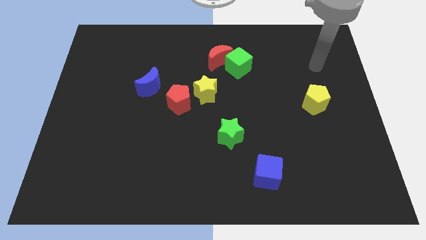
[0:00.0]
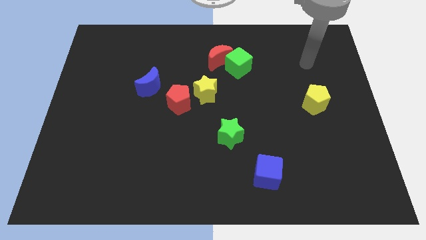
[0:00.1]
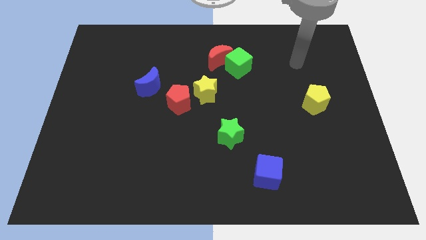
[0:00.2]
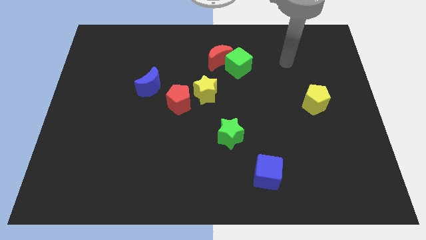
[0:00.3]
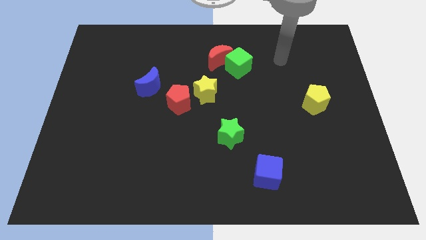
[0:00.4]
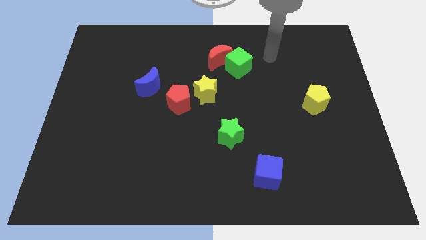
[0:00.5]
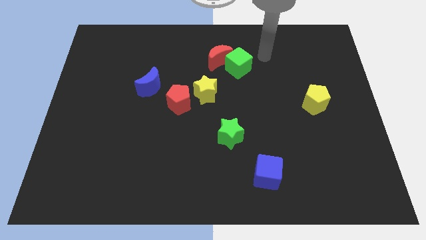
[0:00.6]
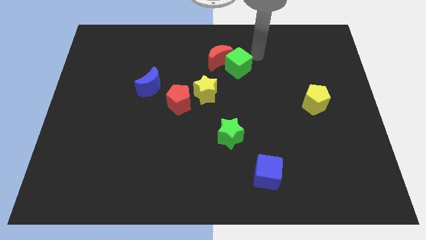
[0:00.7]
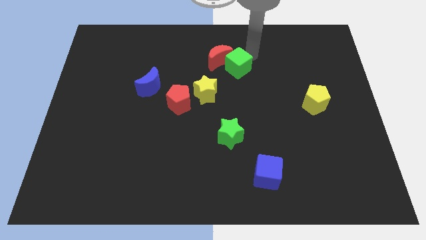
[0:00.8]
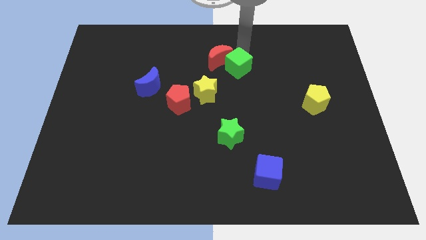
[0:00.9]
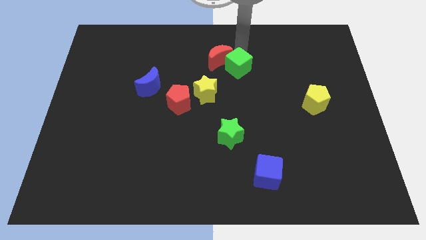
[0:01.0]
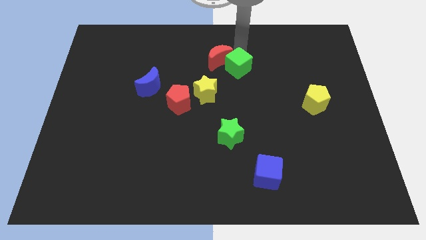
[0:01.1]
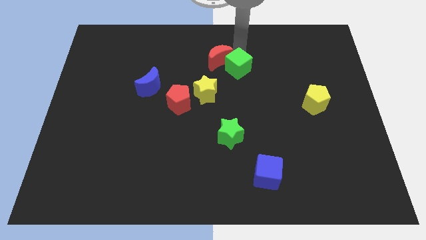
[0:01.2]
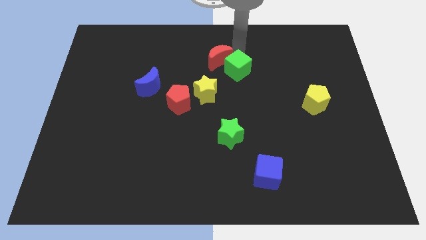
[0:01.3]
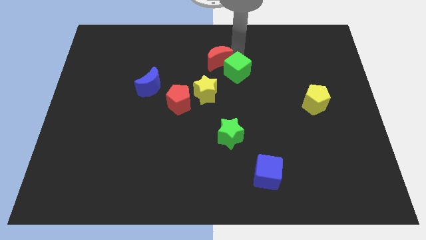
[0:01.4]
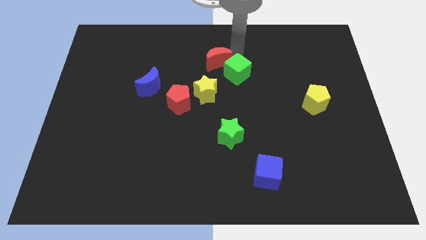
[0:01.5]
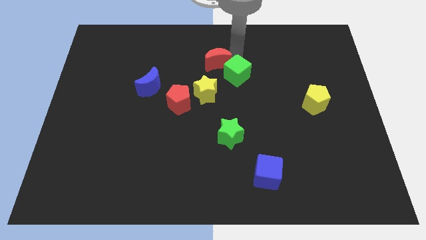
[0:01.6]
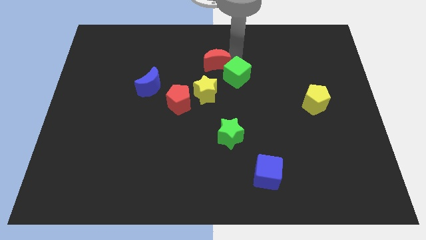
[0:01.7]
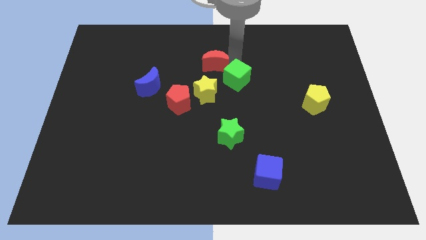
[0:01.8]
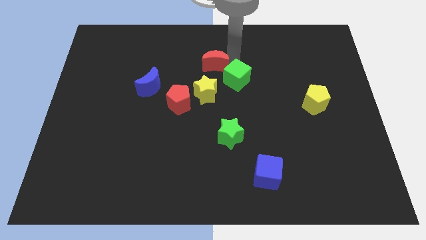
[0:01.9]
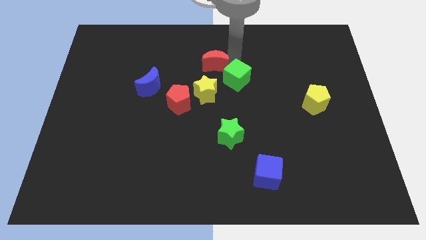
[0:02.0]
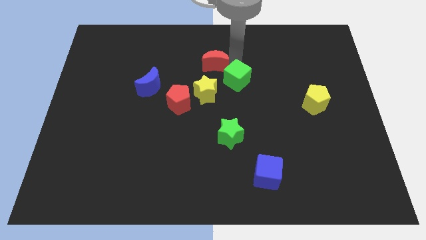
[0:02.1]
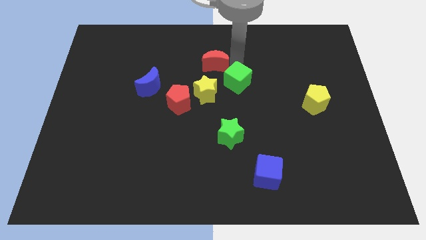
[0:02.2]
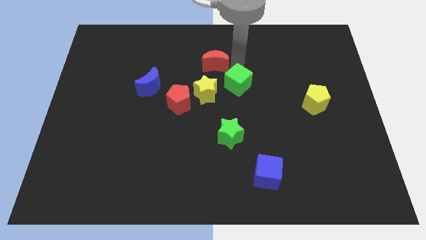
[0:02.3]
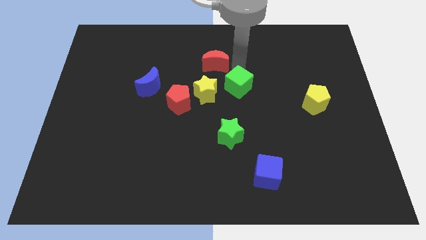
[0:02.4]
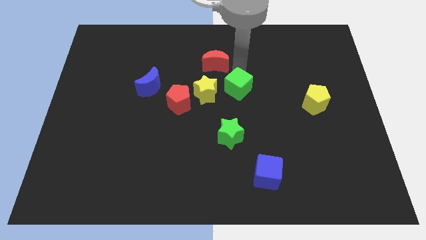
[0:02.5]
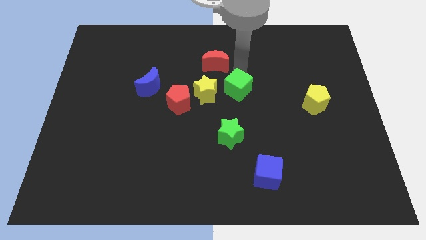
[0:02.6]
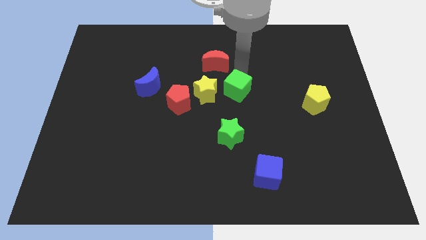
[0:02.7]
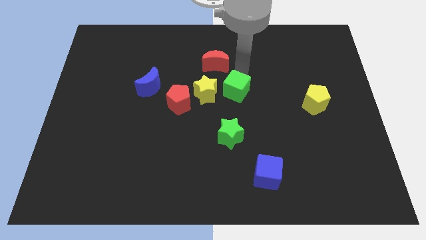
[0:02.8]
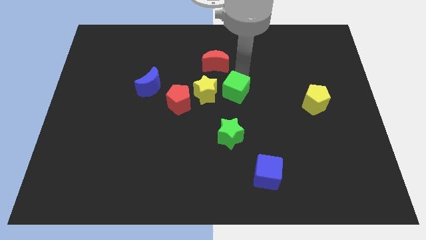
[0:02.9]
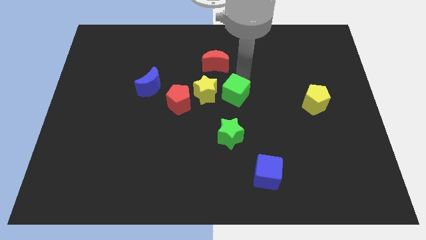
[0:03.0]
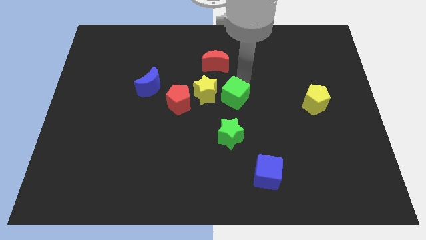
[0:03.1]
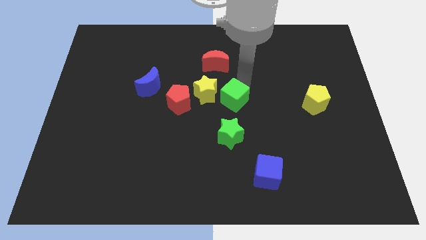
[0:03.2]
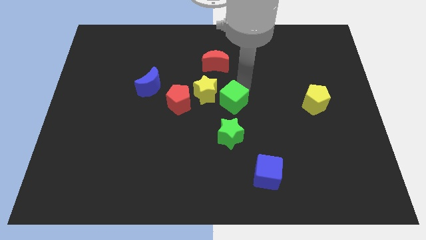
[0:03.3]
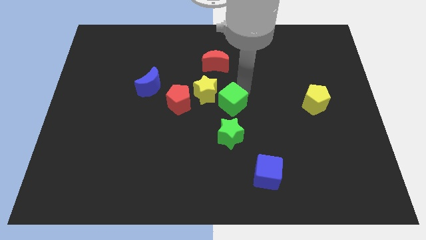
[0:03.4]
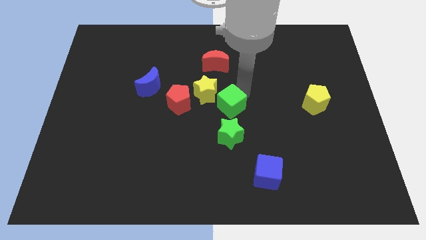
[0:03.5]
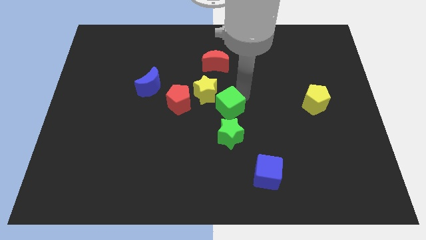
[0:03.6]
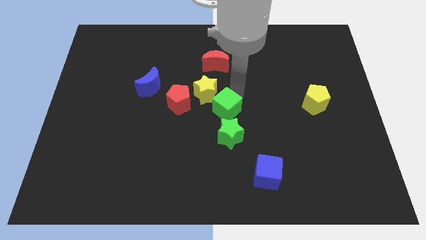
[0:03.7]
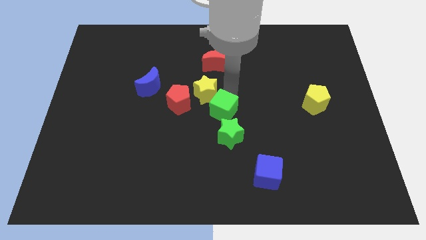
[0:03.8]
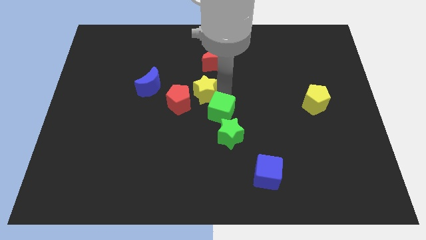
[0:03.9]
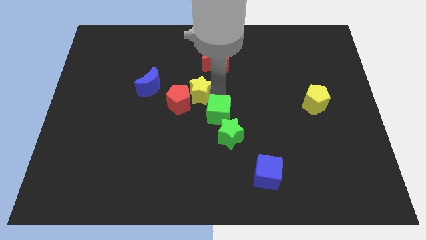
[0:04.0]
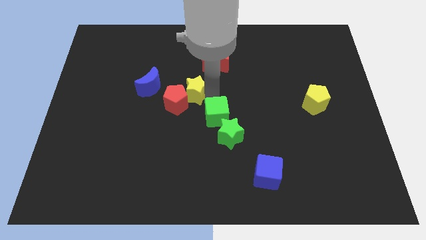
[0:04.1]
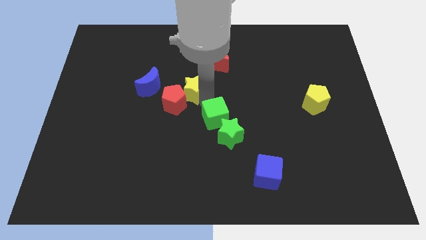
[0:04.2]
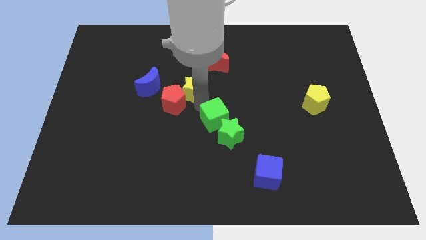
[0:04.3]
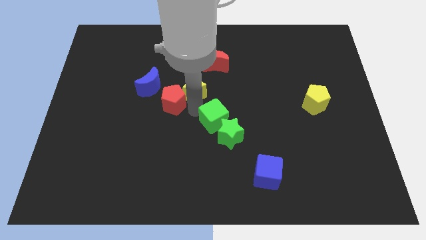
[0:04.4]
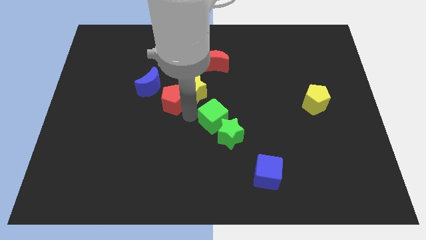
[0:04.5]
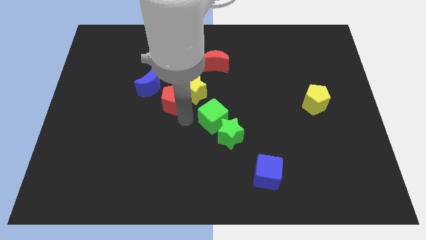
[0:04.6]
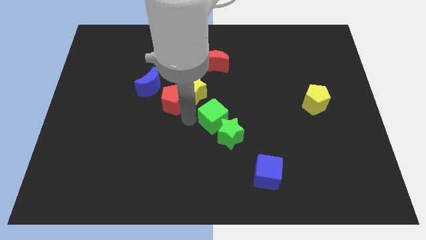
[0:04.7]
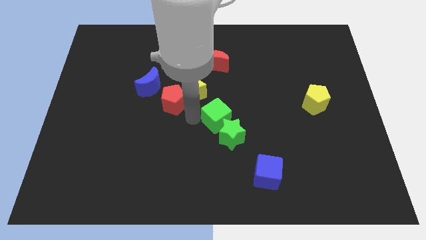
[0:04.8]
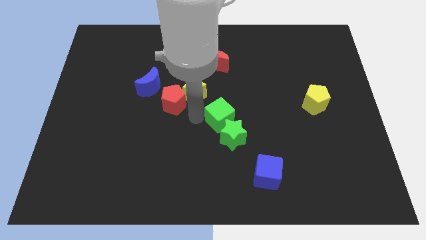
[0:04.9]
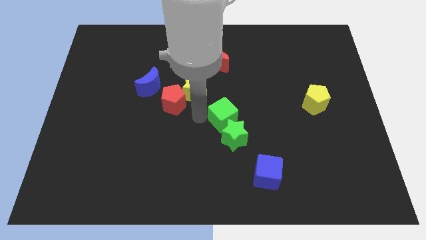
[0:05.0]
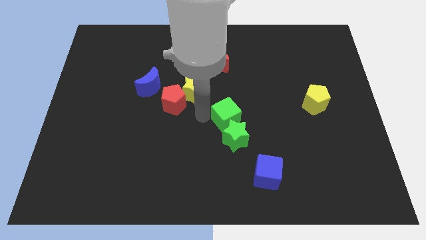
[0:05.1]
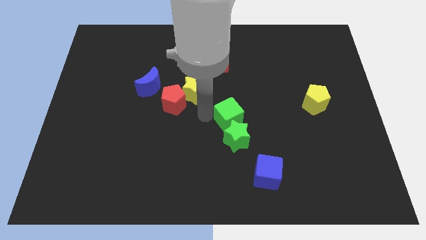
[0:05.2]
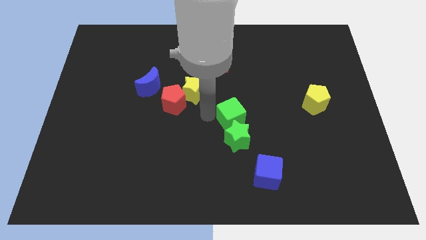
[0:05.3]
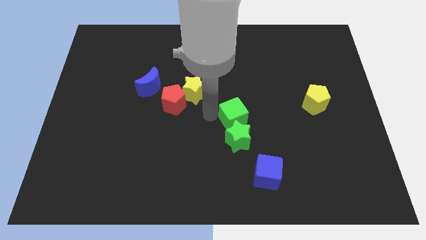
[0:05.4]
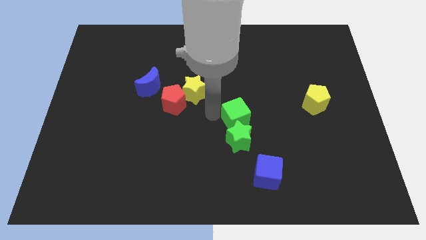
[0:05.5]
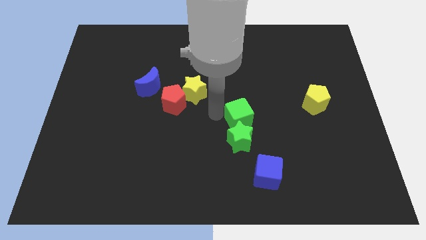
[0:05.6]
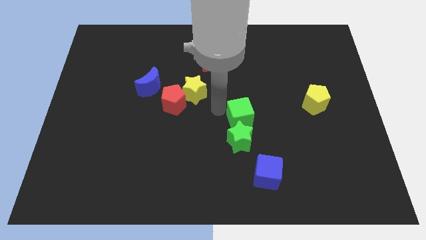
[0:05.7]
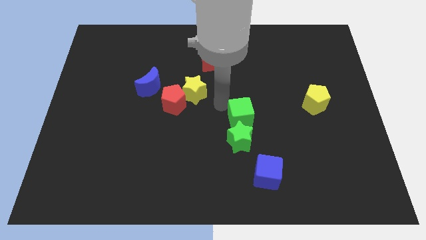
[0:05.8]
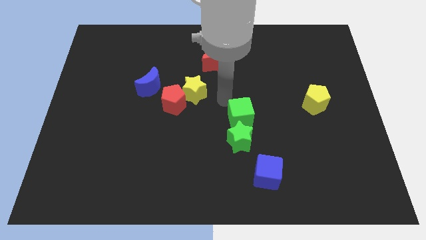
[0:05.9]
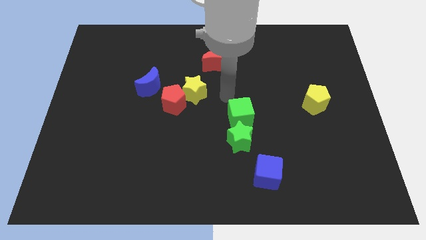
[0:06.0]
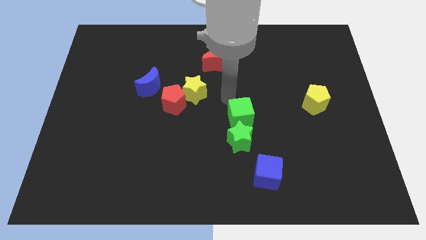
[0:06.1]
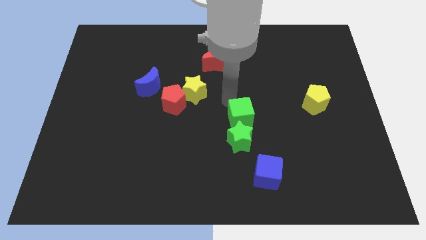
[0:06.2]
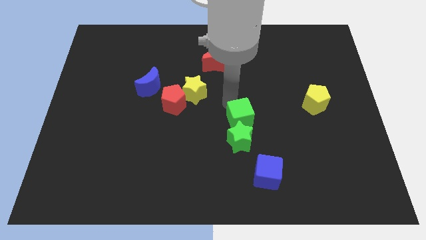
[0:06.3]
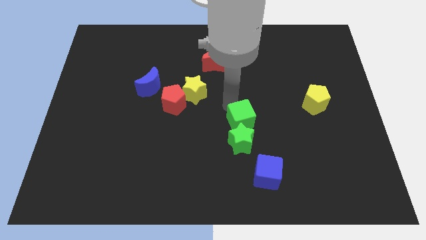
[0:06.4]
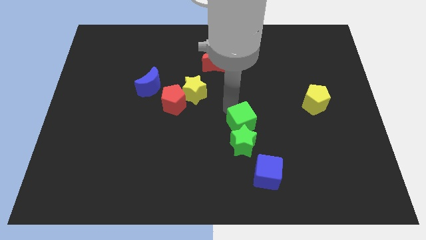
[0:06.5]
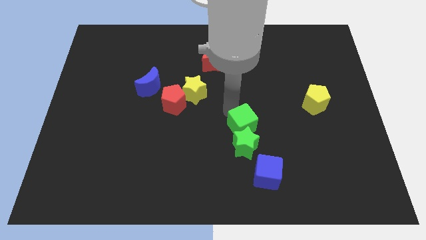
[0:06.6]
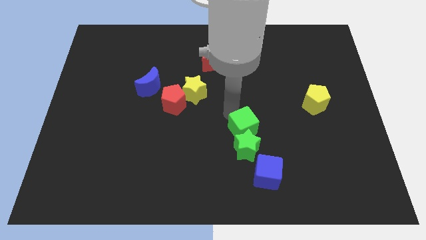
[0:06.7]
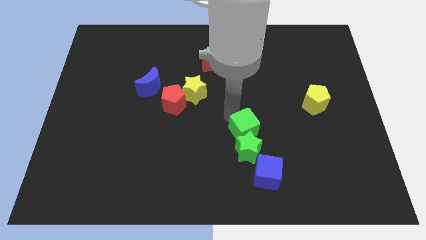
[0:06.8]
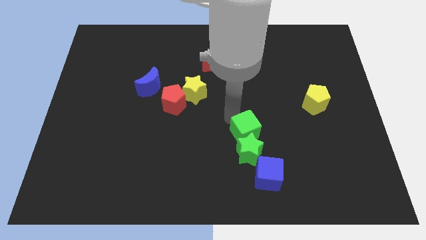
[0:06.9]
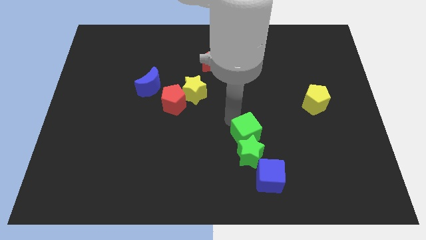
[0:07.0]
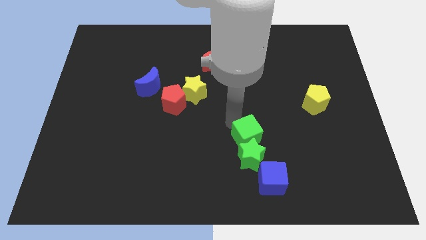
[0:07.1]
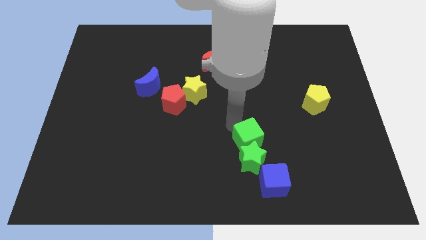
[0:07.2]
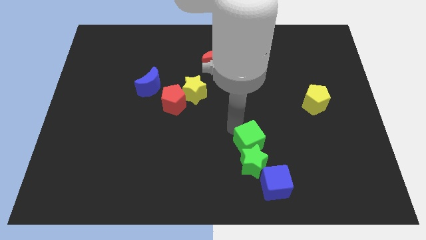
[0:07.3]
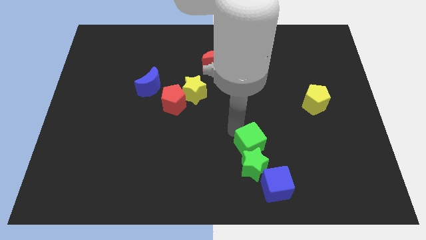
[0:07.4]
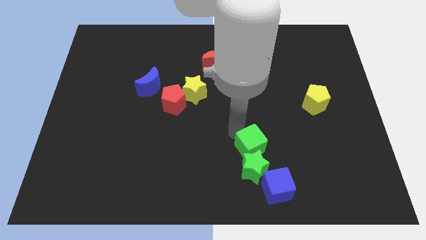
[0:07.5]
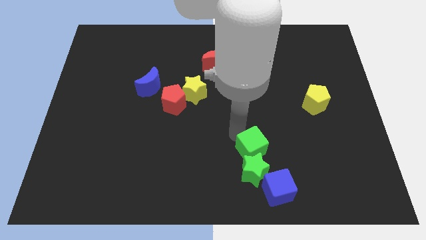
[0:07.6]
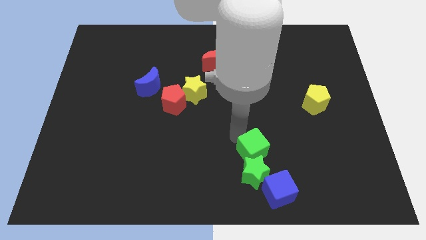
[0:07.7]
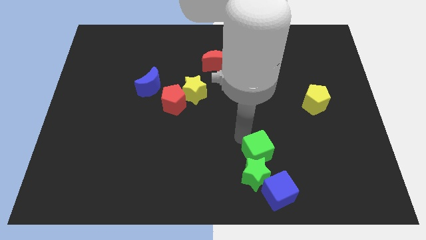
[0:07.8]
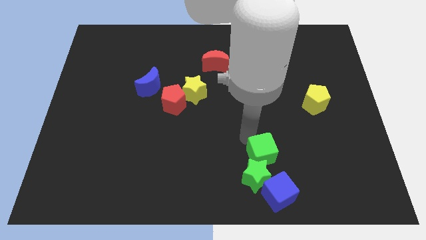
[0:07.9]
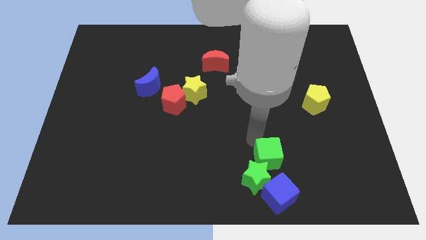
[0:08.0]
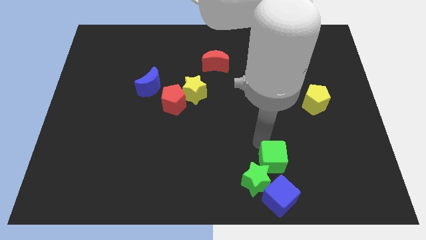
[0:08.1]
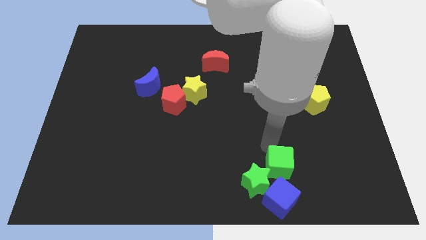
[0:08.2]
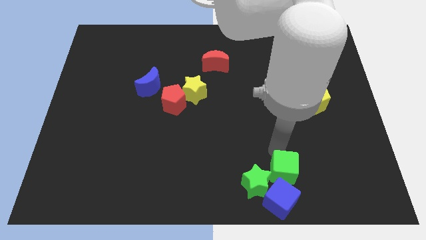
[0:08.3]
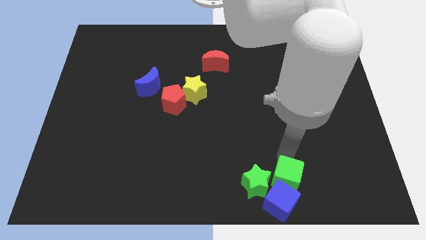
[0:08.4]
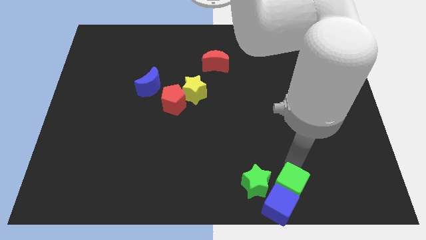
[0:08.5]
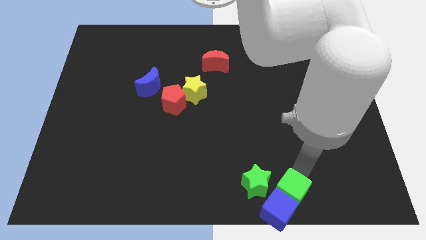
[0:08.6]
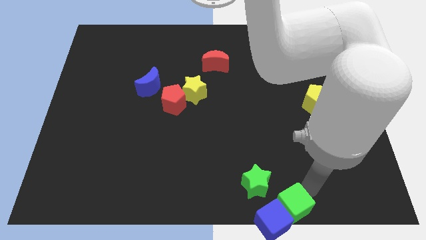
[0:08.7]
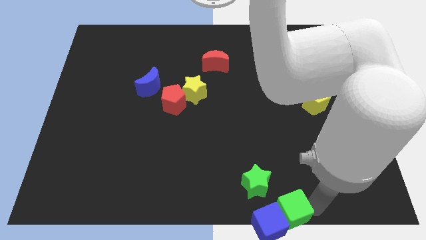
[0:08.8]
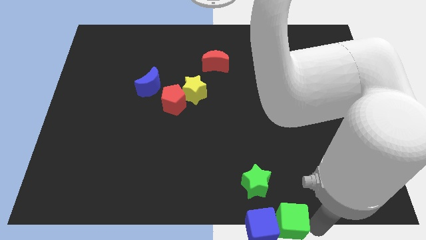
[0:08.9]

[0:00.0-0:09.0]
slide the green cube to the bottom side
